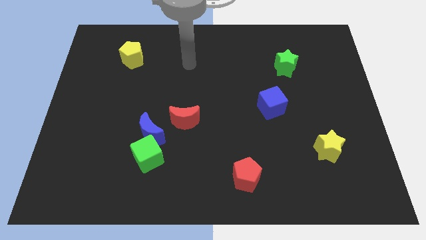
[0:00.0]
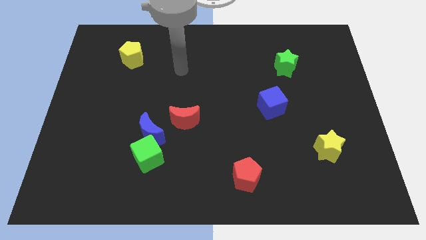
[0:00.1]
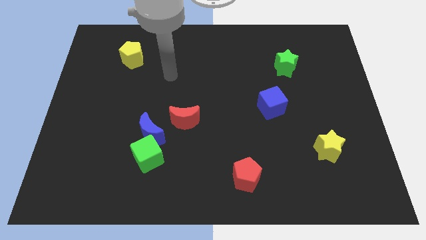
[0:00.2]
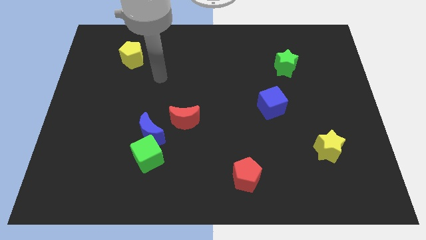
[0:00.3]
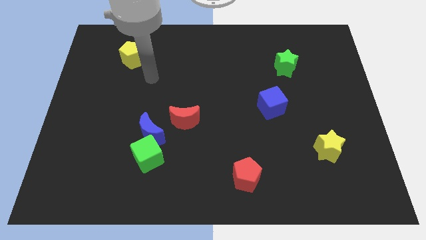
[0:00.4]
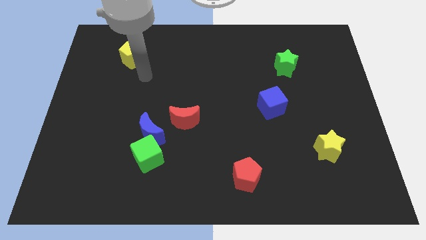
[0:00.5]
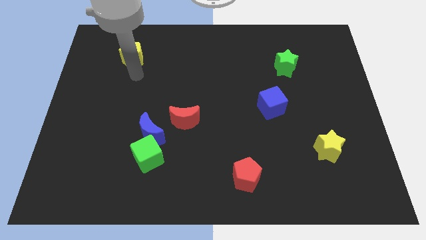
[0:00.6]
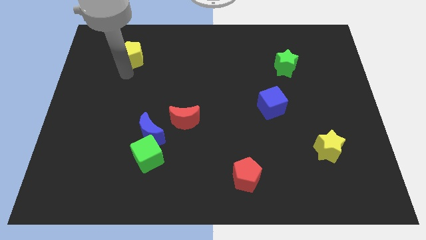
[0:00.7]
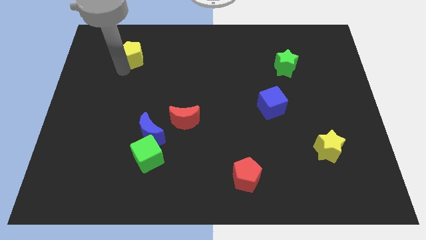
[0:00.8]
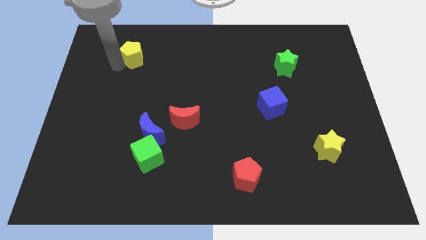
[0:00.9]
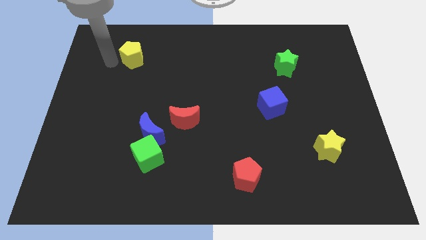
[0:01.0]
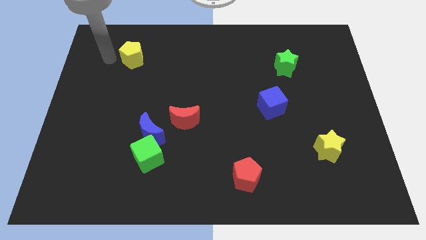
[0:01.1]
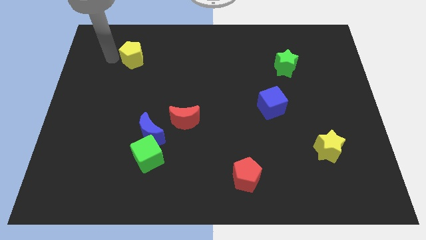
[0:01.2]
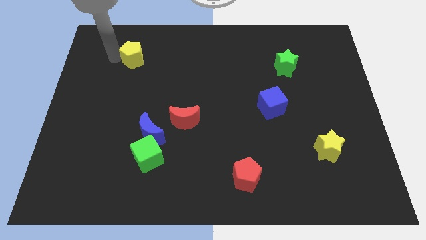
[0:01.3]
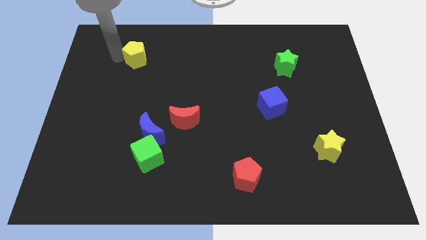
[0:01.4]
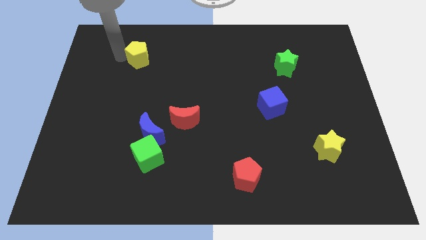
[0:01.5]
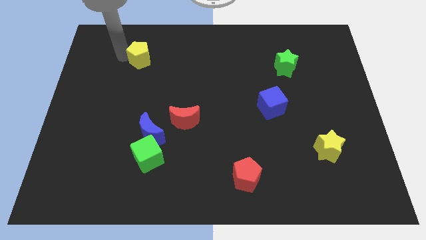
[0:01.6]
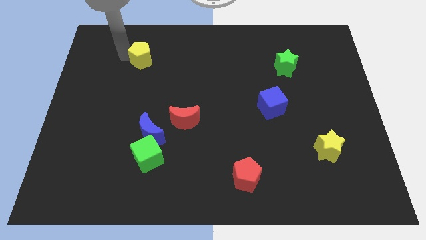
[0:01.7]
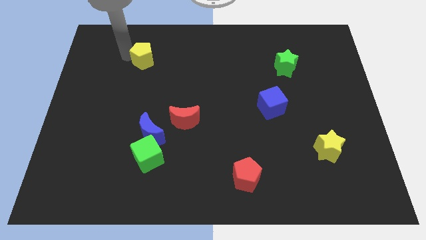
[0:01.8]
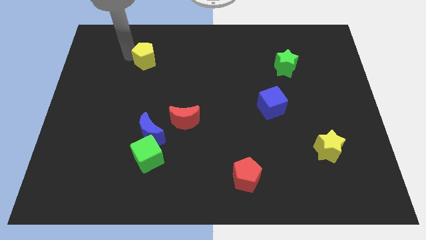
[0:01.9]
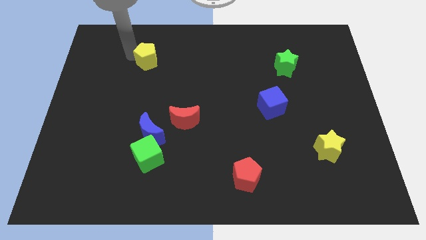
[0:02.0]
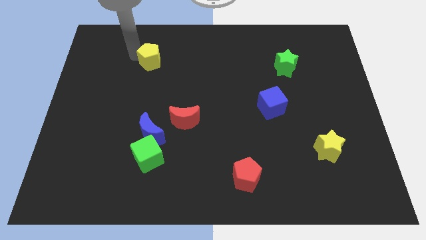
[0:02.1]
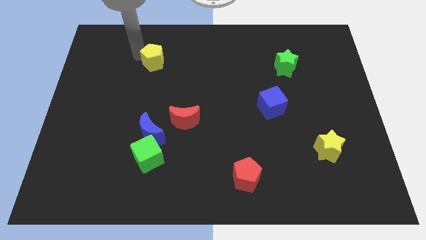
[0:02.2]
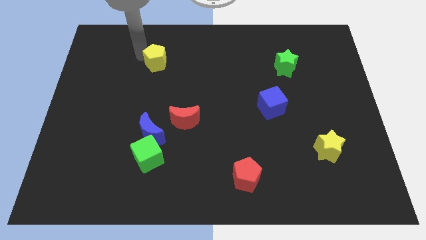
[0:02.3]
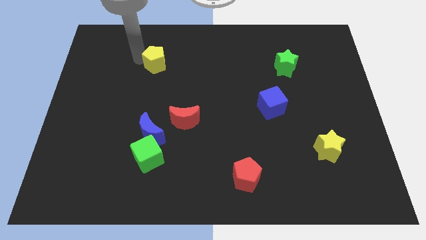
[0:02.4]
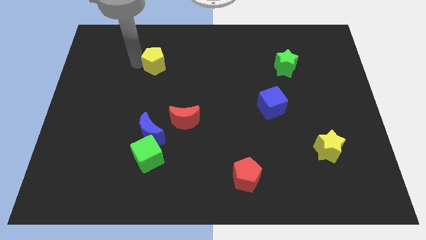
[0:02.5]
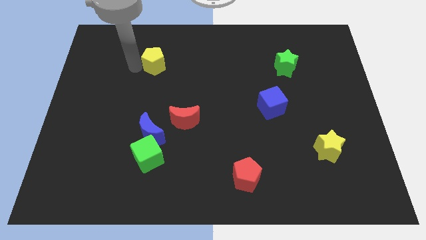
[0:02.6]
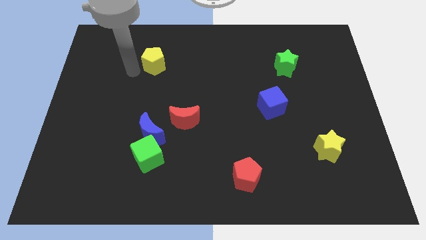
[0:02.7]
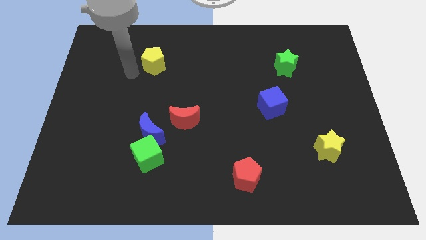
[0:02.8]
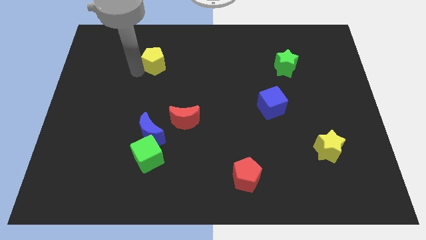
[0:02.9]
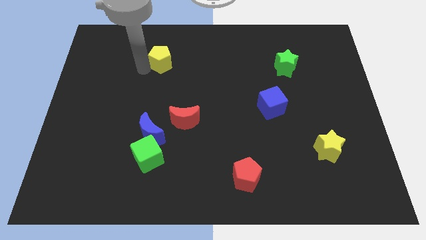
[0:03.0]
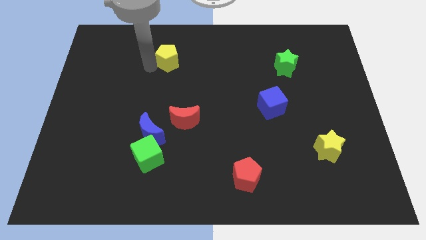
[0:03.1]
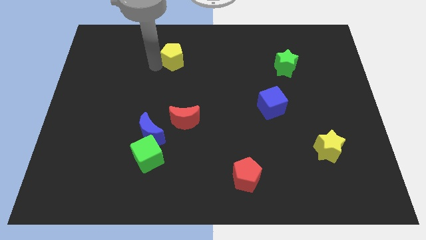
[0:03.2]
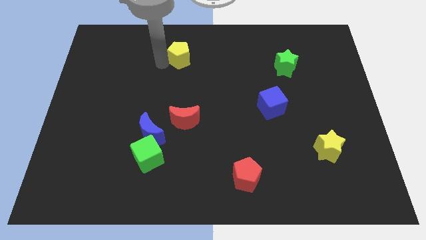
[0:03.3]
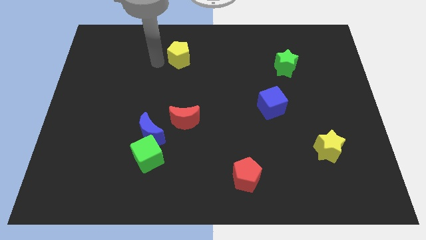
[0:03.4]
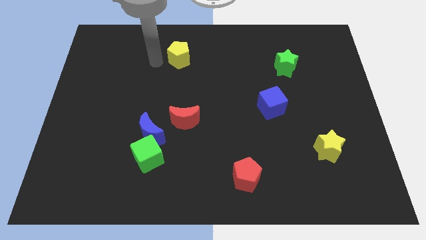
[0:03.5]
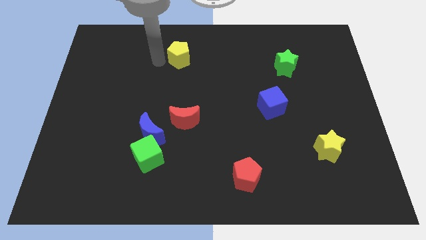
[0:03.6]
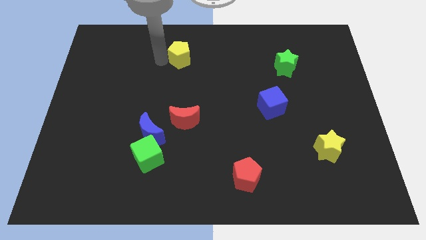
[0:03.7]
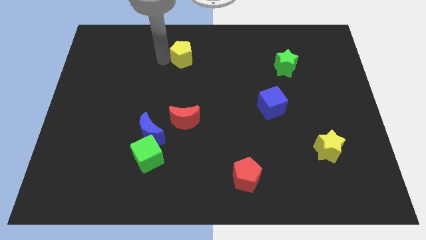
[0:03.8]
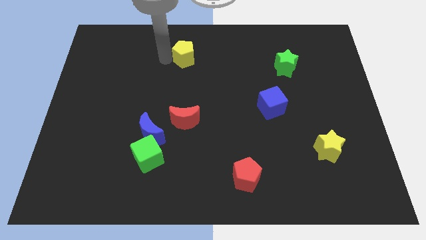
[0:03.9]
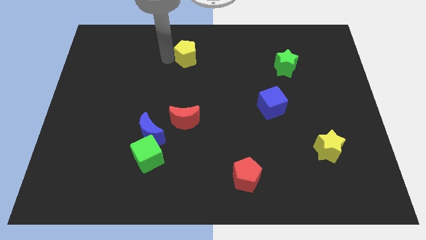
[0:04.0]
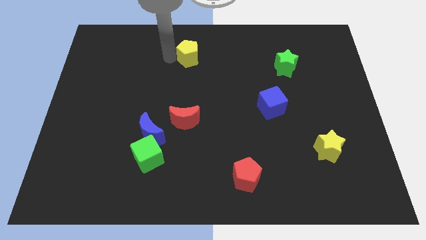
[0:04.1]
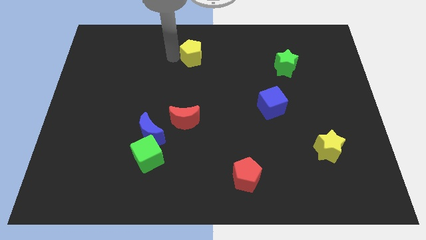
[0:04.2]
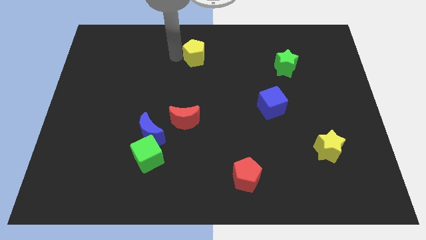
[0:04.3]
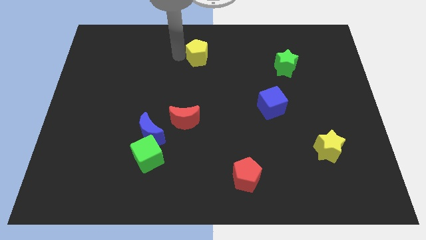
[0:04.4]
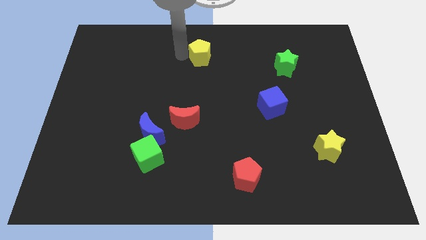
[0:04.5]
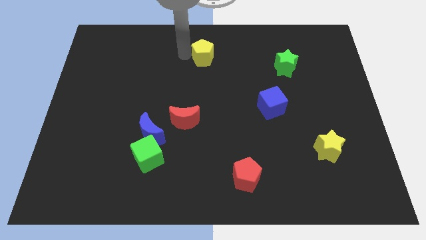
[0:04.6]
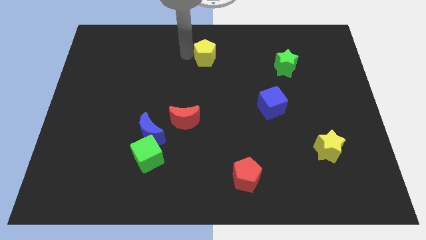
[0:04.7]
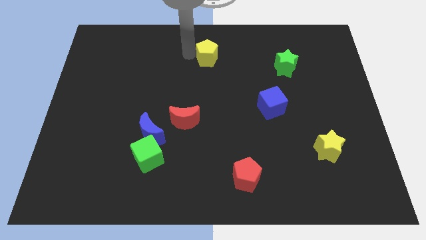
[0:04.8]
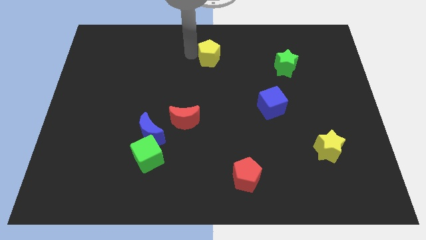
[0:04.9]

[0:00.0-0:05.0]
slide the yellow pentagon right

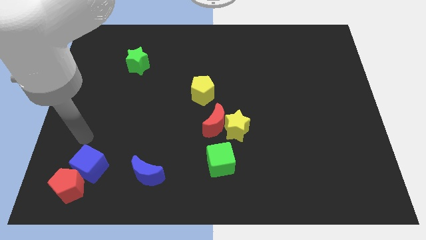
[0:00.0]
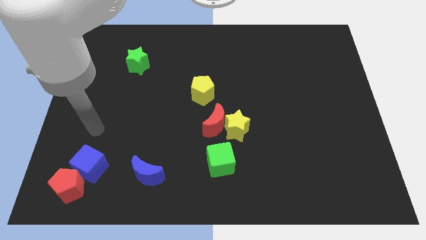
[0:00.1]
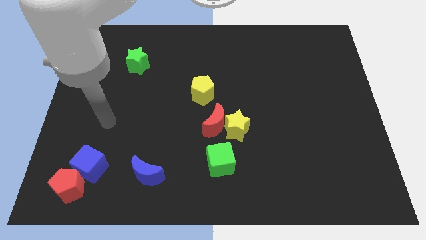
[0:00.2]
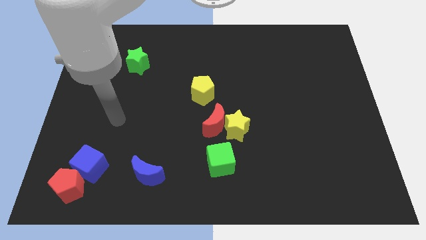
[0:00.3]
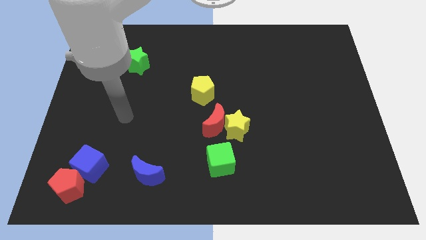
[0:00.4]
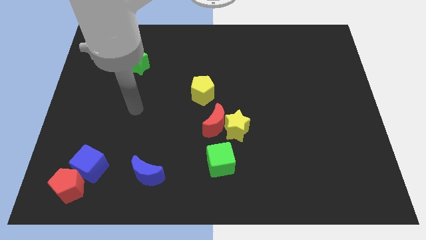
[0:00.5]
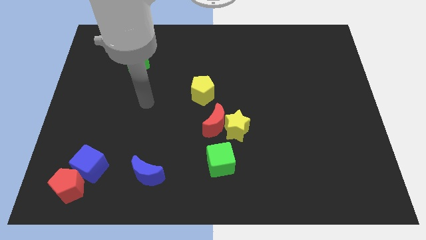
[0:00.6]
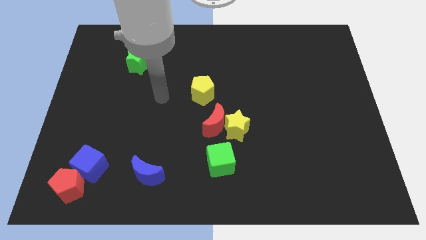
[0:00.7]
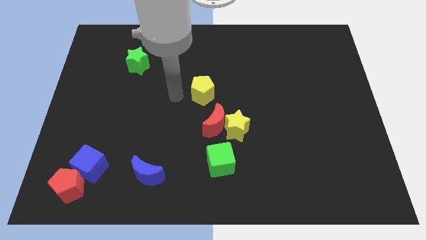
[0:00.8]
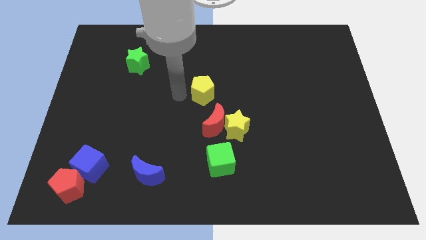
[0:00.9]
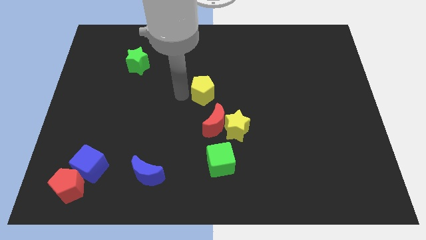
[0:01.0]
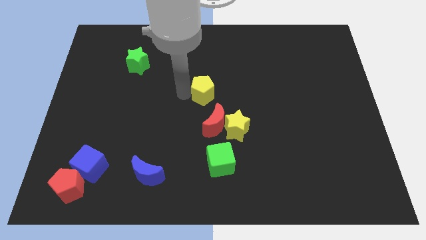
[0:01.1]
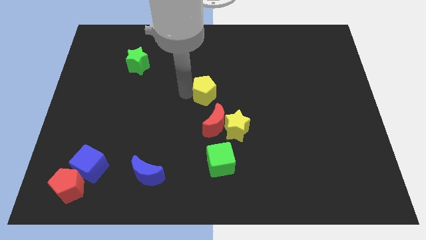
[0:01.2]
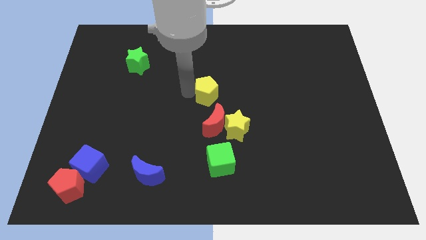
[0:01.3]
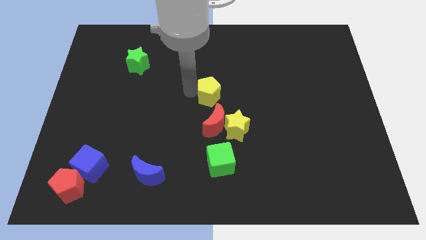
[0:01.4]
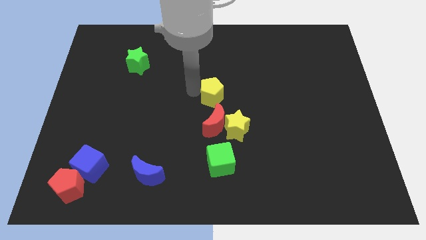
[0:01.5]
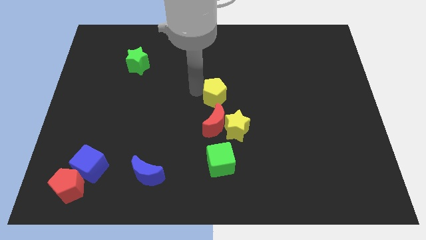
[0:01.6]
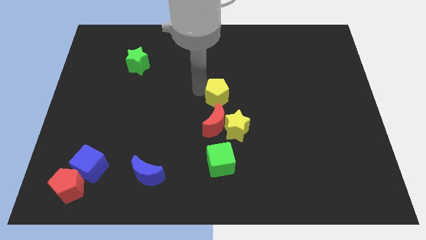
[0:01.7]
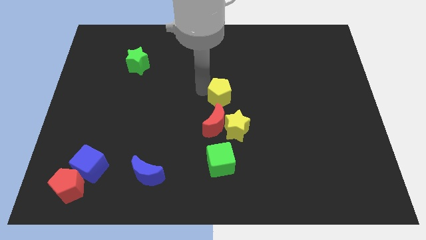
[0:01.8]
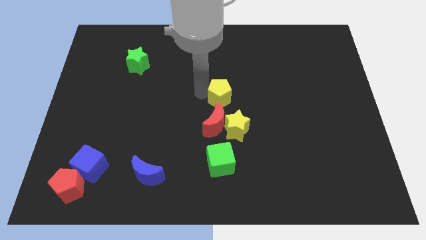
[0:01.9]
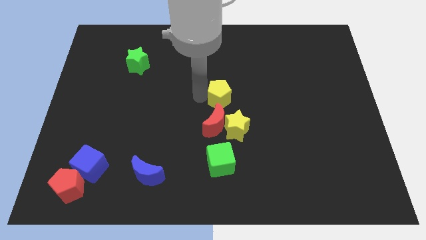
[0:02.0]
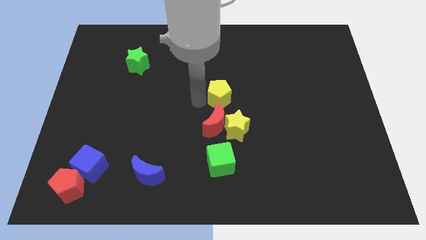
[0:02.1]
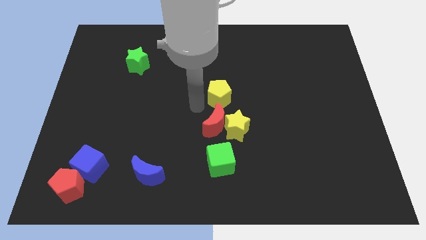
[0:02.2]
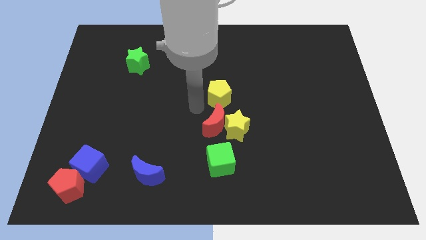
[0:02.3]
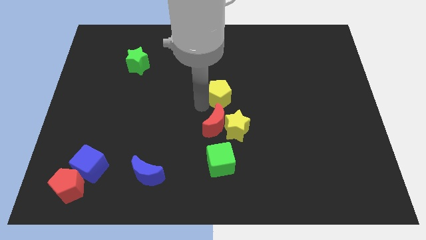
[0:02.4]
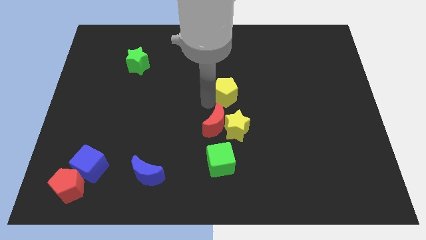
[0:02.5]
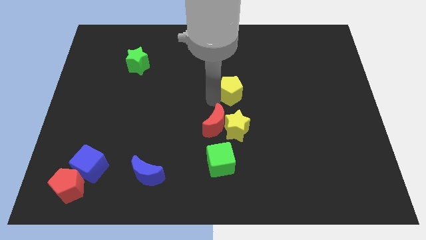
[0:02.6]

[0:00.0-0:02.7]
slide the yellow pentagon right slightly
